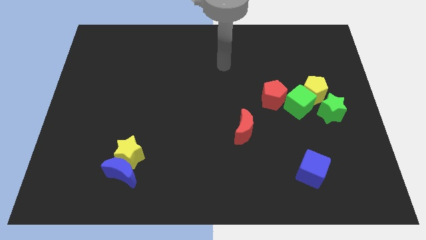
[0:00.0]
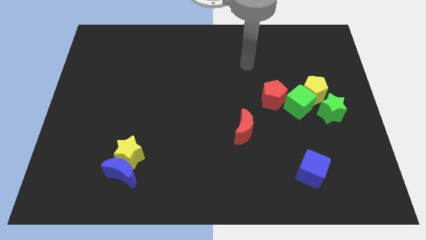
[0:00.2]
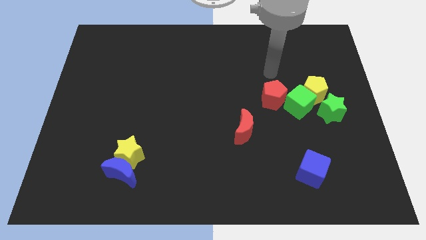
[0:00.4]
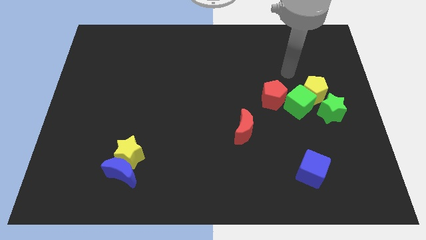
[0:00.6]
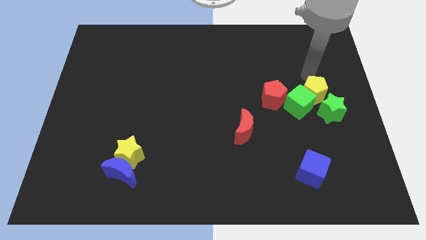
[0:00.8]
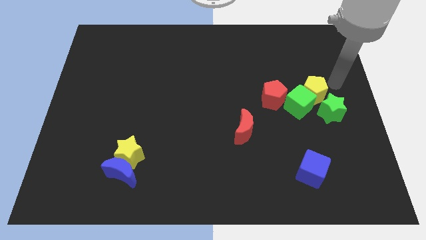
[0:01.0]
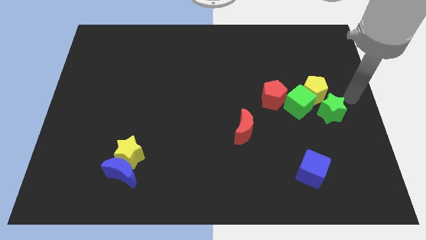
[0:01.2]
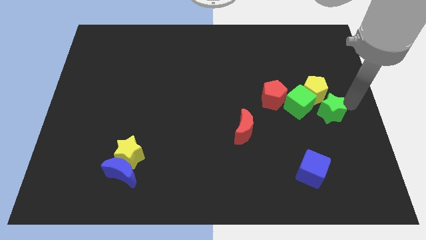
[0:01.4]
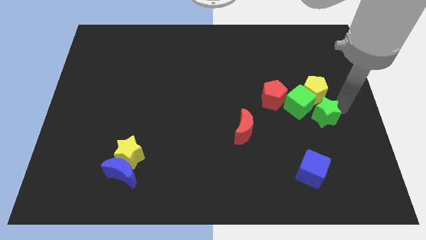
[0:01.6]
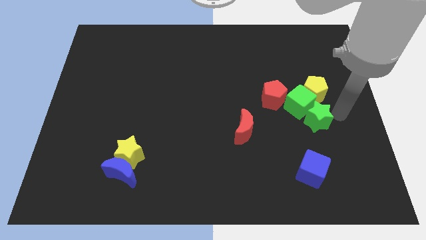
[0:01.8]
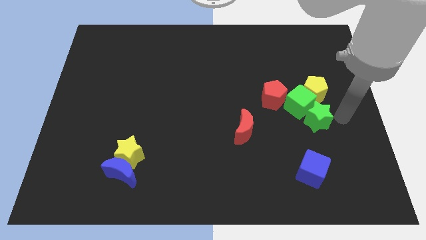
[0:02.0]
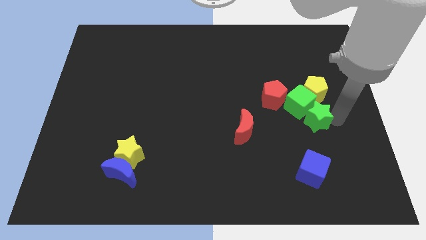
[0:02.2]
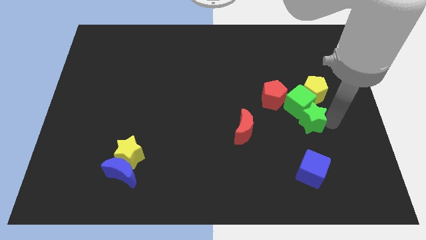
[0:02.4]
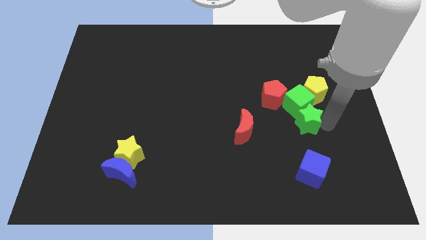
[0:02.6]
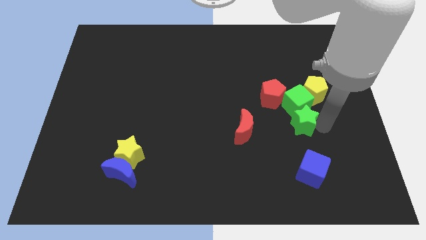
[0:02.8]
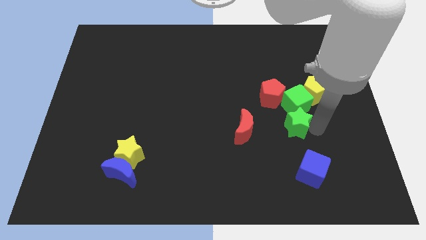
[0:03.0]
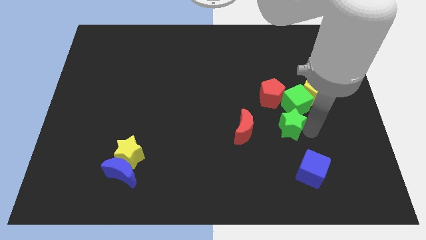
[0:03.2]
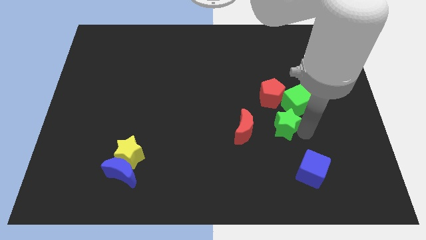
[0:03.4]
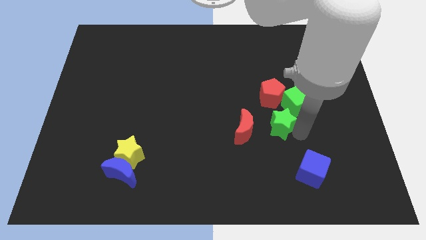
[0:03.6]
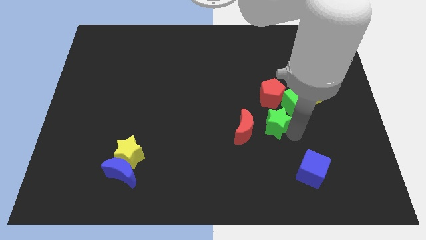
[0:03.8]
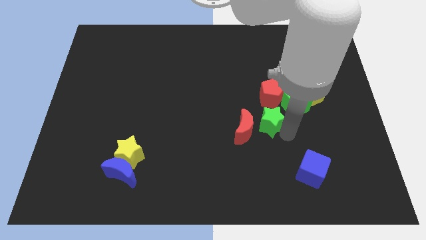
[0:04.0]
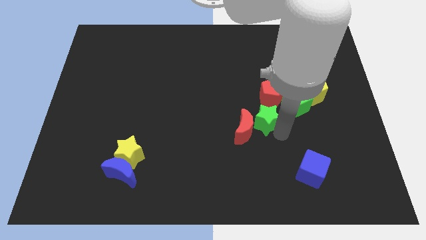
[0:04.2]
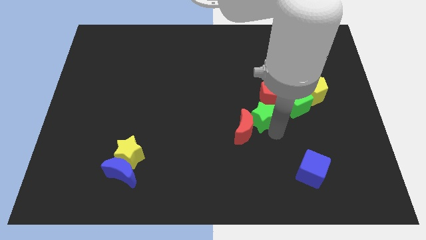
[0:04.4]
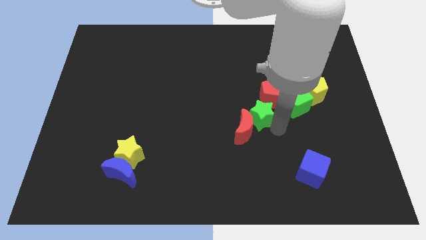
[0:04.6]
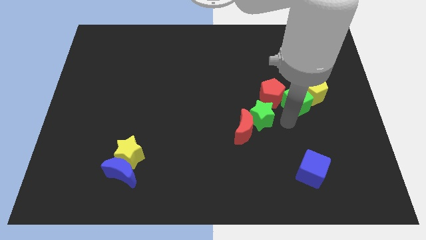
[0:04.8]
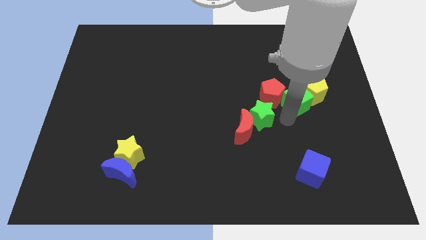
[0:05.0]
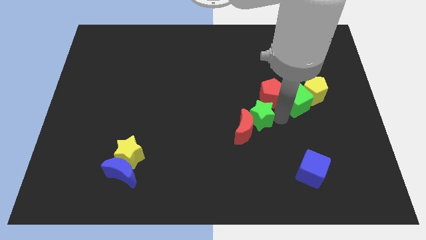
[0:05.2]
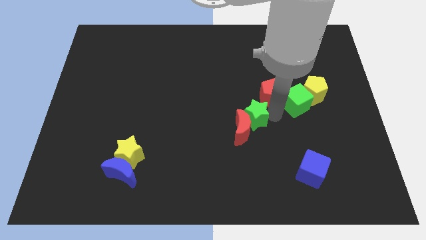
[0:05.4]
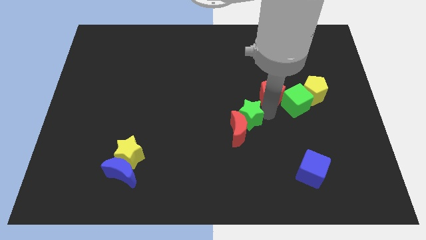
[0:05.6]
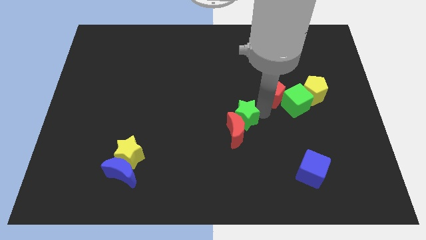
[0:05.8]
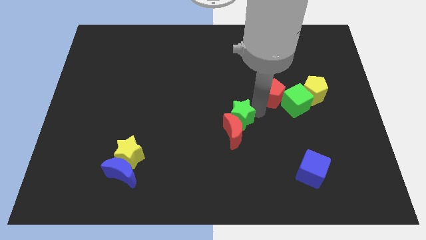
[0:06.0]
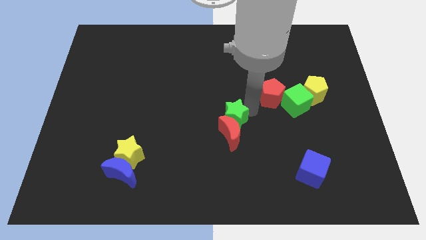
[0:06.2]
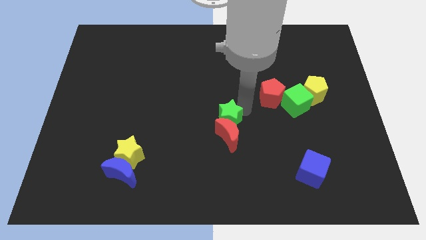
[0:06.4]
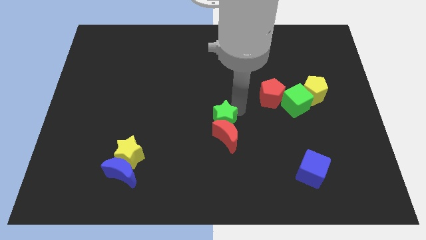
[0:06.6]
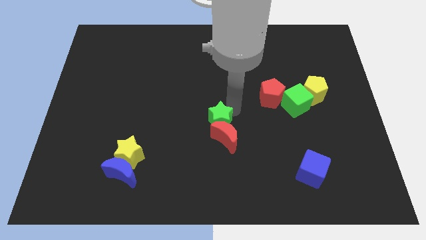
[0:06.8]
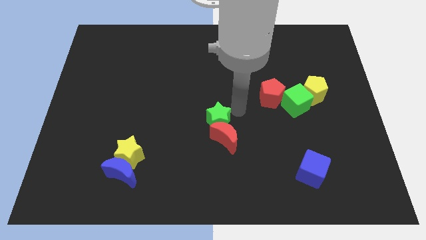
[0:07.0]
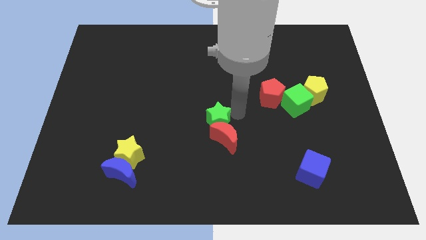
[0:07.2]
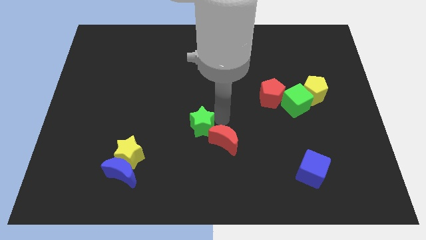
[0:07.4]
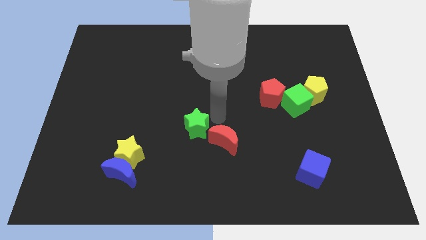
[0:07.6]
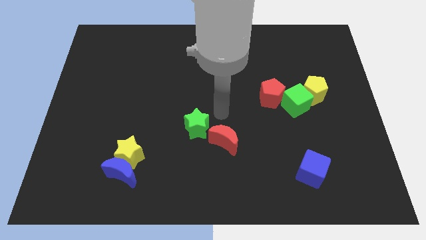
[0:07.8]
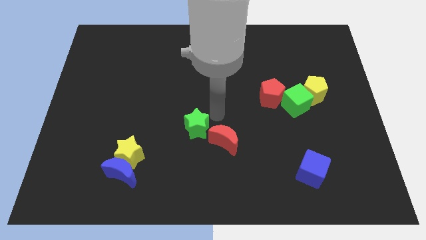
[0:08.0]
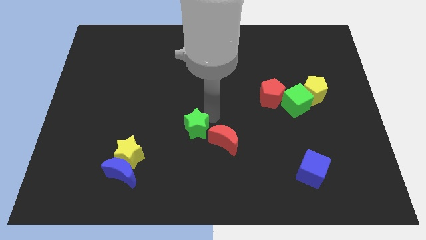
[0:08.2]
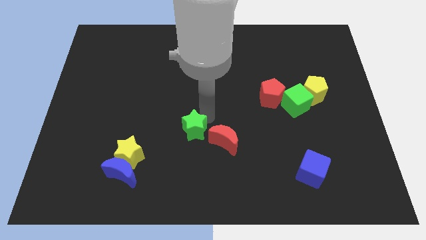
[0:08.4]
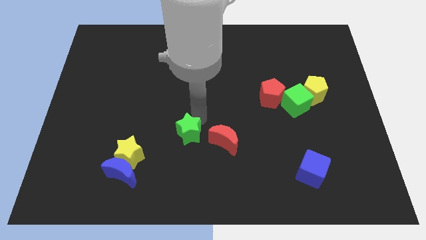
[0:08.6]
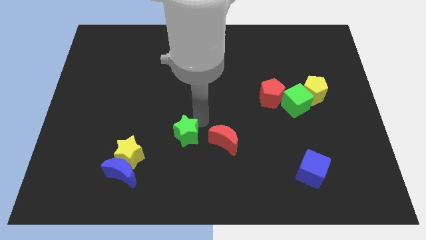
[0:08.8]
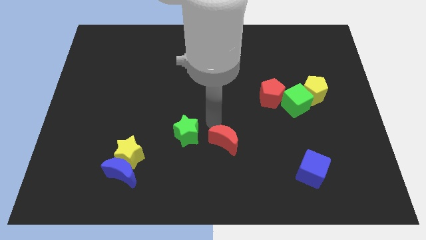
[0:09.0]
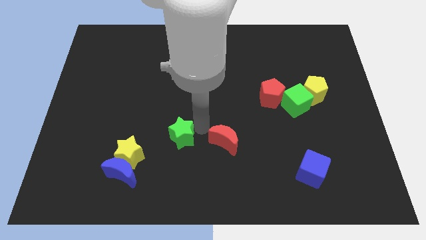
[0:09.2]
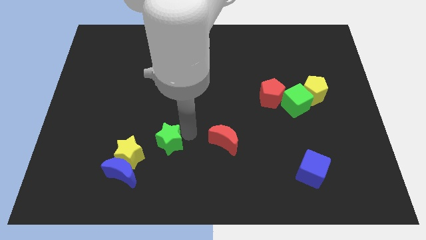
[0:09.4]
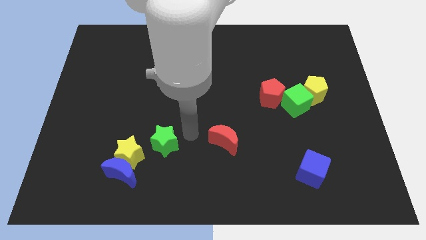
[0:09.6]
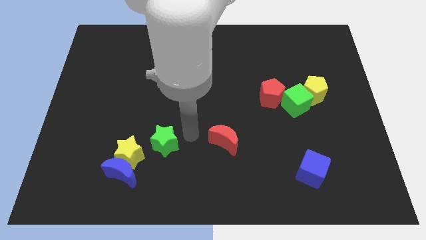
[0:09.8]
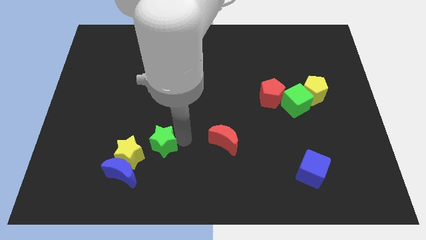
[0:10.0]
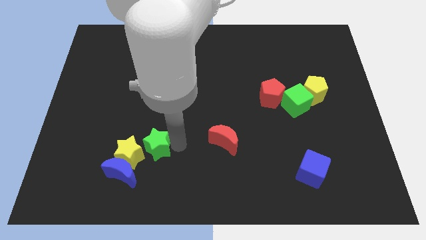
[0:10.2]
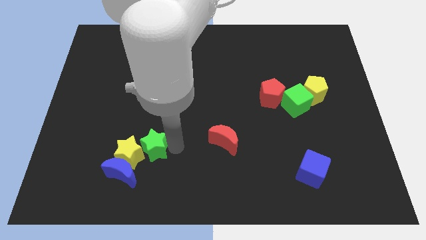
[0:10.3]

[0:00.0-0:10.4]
put the green star close to the yellow star

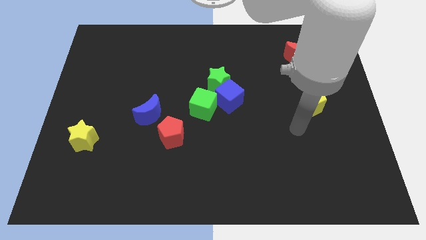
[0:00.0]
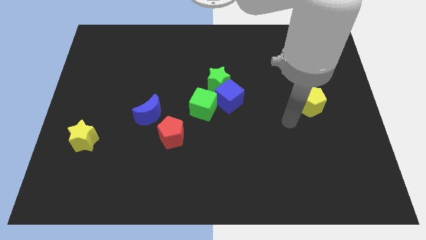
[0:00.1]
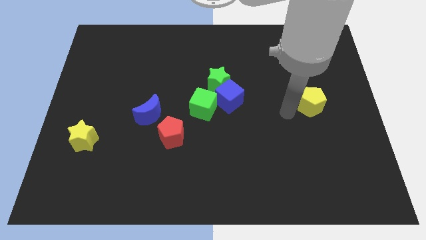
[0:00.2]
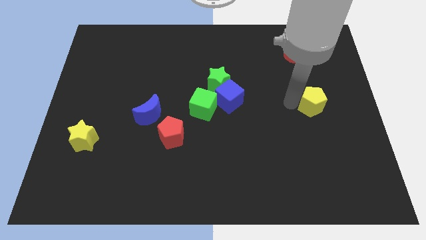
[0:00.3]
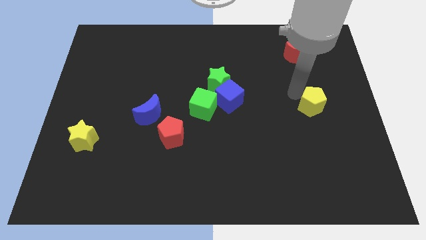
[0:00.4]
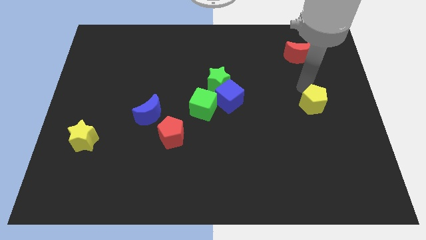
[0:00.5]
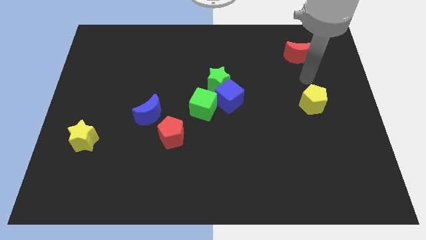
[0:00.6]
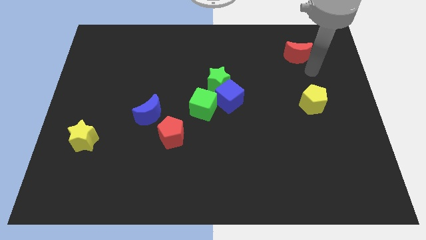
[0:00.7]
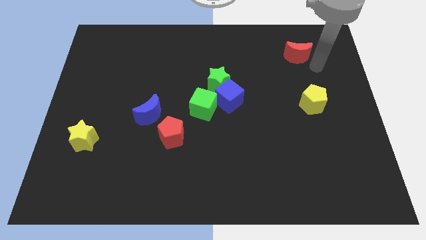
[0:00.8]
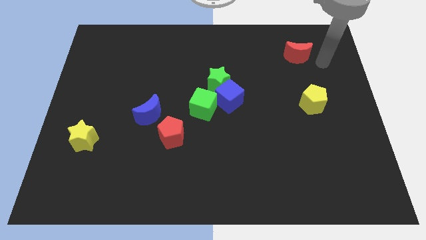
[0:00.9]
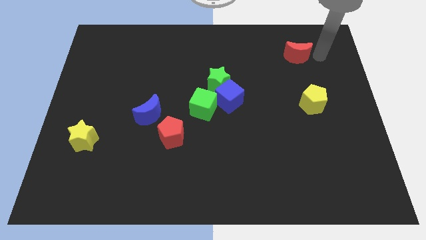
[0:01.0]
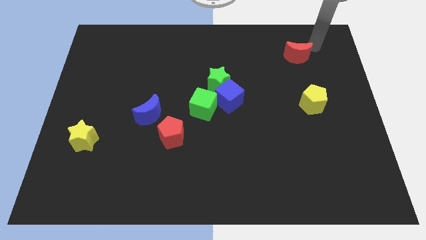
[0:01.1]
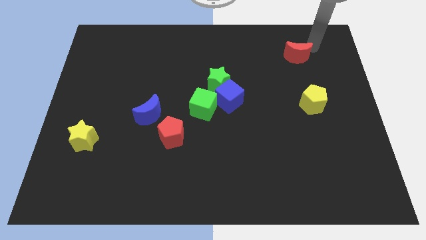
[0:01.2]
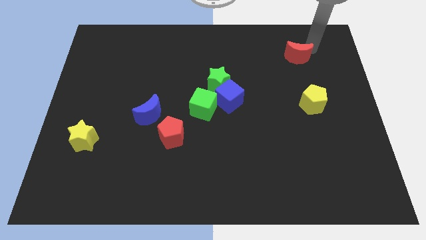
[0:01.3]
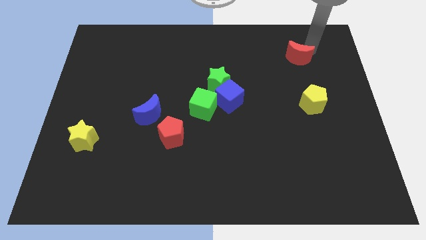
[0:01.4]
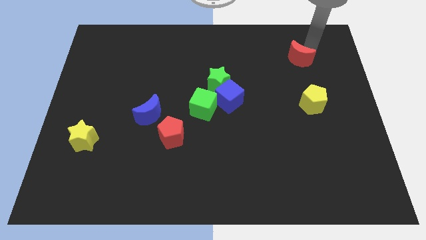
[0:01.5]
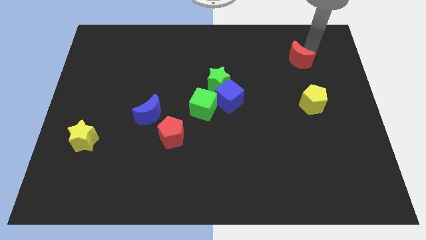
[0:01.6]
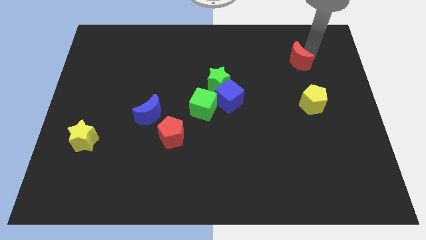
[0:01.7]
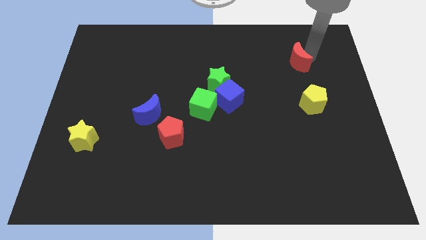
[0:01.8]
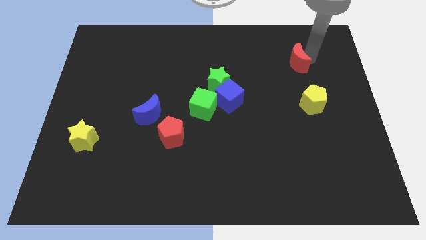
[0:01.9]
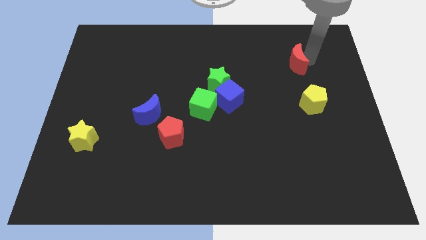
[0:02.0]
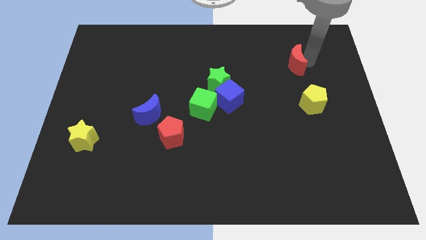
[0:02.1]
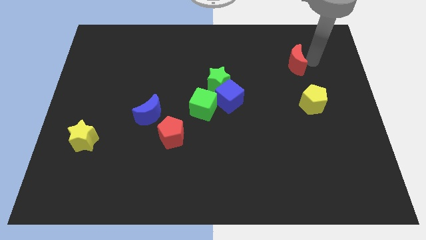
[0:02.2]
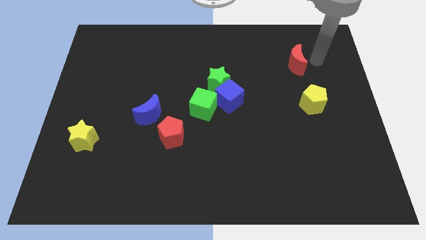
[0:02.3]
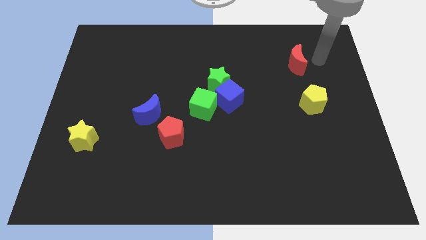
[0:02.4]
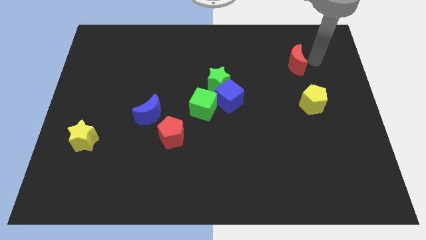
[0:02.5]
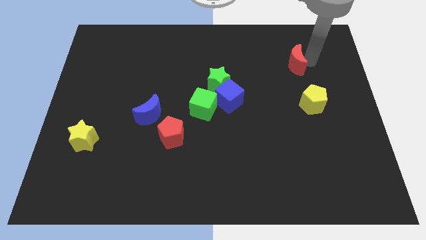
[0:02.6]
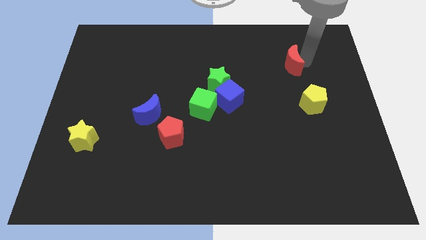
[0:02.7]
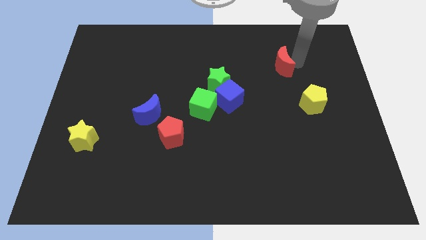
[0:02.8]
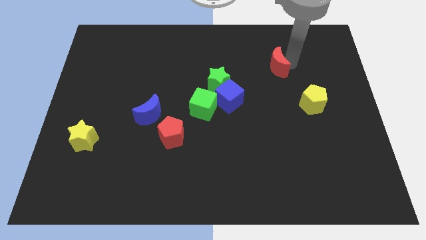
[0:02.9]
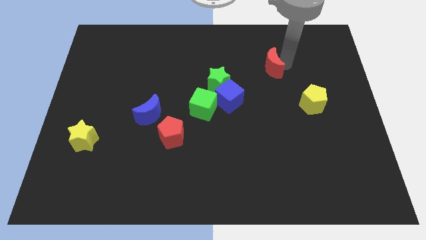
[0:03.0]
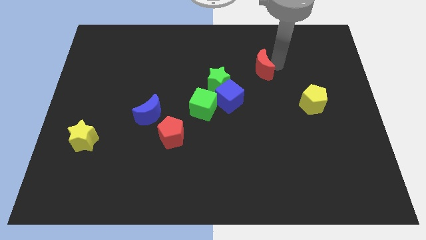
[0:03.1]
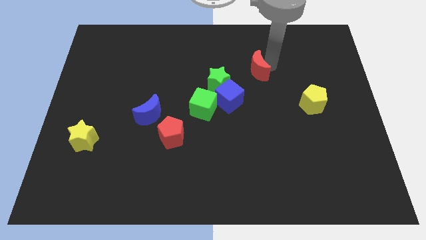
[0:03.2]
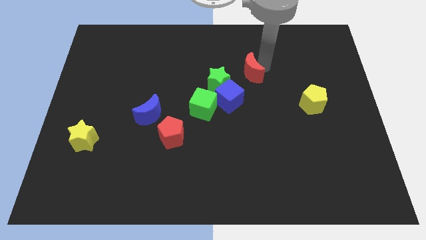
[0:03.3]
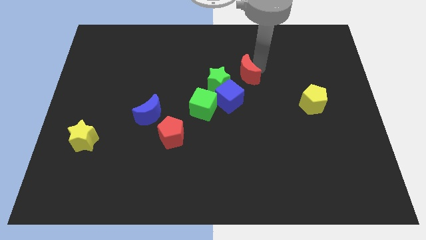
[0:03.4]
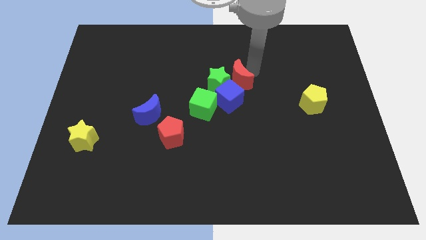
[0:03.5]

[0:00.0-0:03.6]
move the red moon next to the green star
